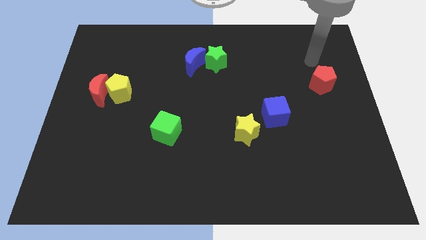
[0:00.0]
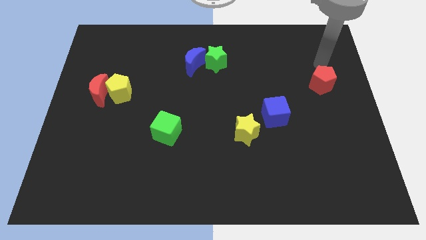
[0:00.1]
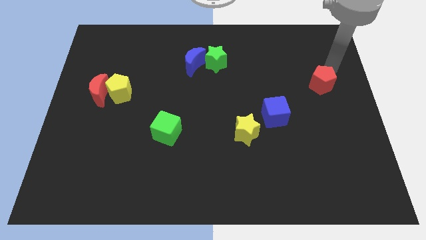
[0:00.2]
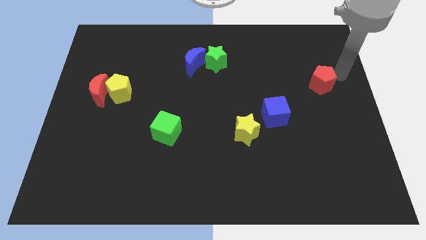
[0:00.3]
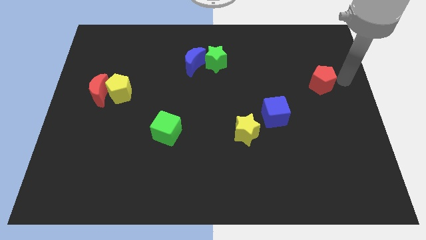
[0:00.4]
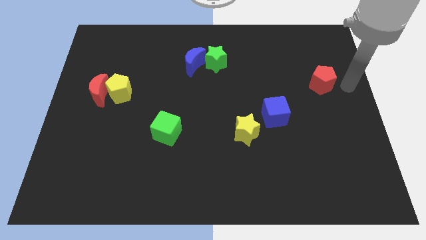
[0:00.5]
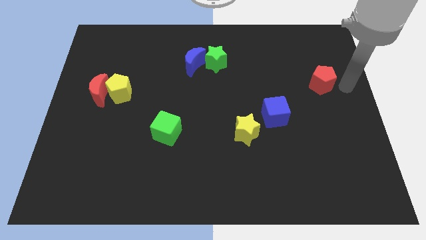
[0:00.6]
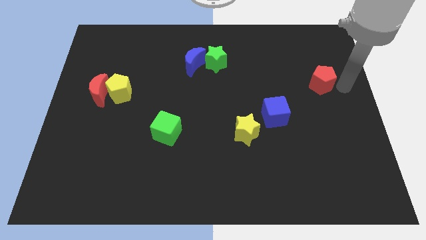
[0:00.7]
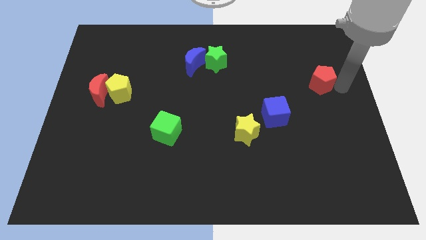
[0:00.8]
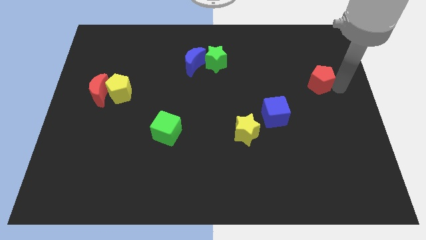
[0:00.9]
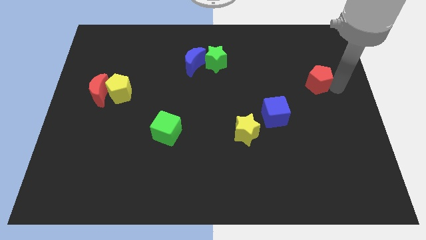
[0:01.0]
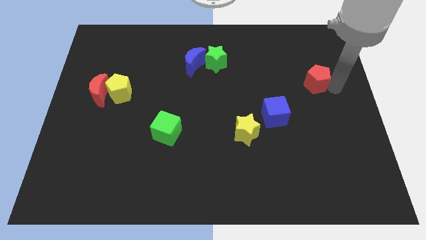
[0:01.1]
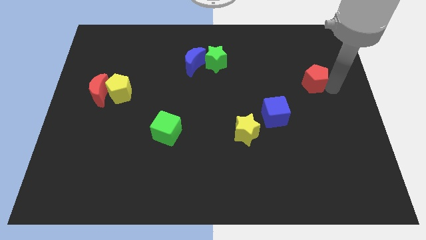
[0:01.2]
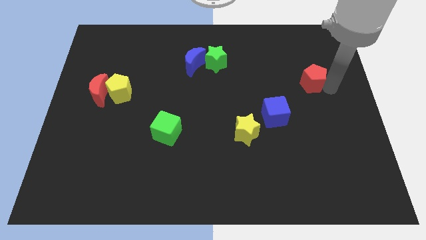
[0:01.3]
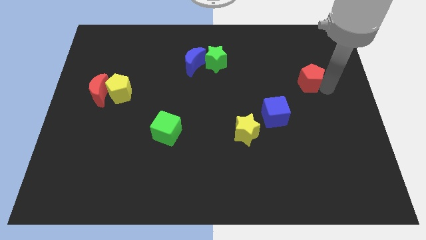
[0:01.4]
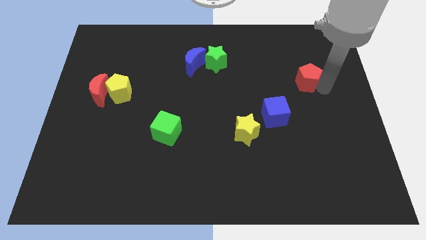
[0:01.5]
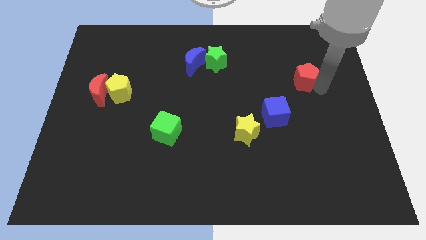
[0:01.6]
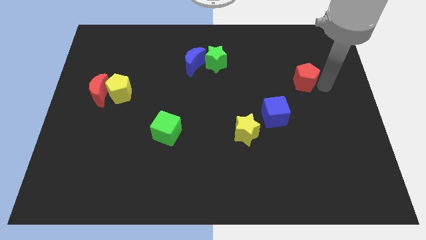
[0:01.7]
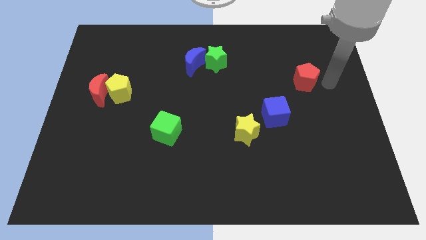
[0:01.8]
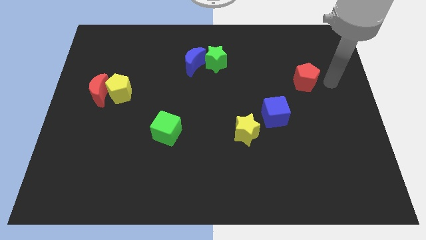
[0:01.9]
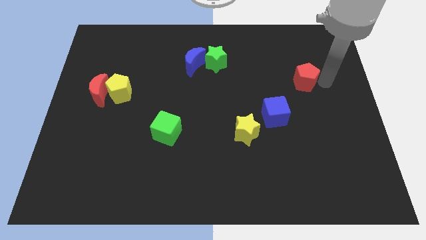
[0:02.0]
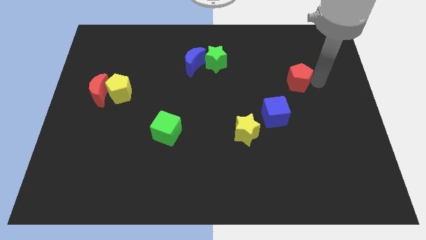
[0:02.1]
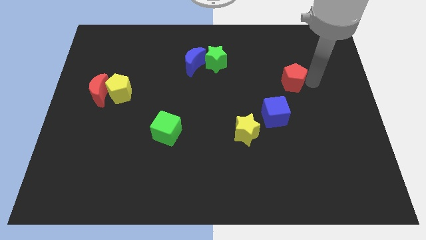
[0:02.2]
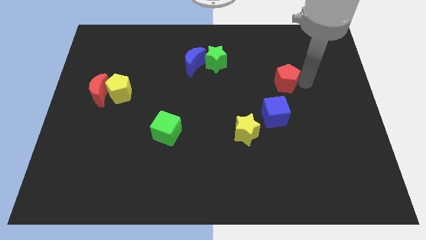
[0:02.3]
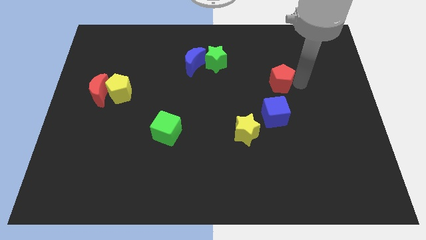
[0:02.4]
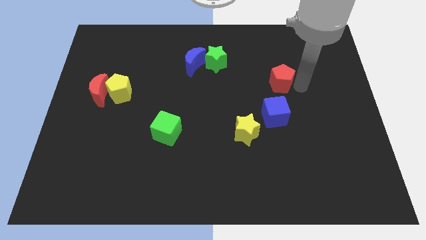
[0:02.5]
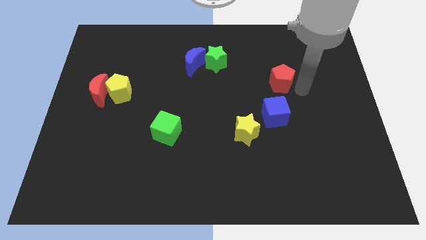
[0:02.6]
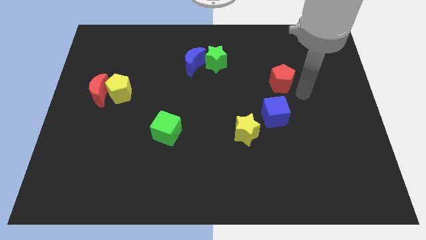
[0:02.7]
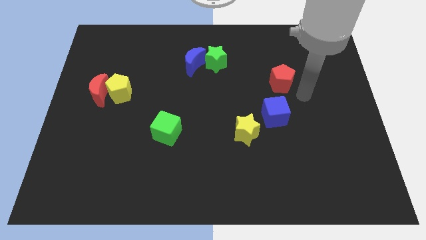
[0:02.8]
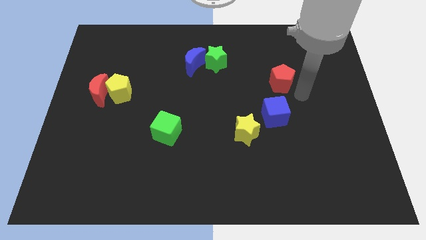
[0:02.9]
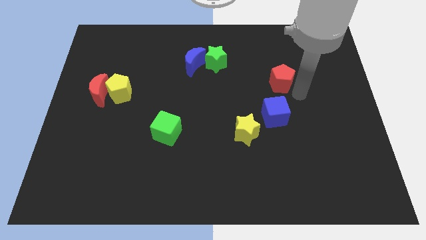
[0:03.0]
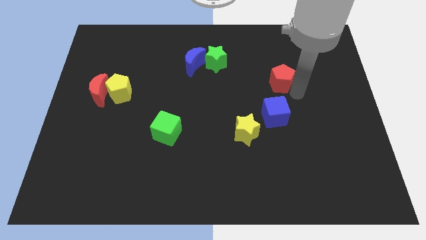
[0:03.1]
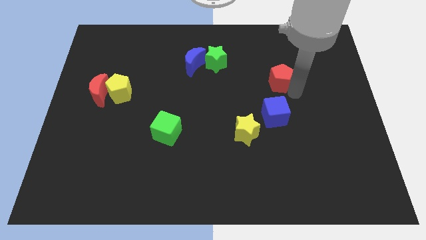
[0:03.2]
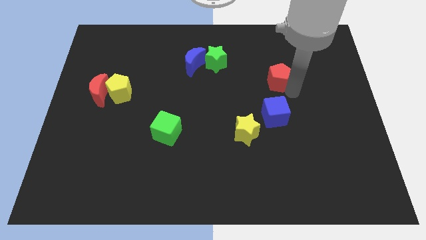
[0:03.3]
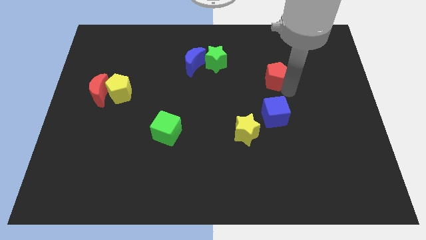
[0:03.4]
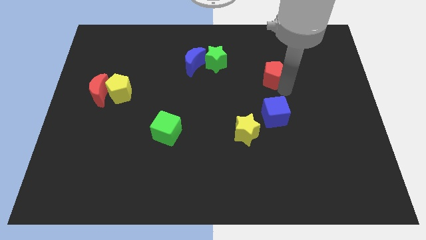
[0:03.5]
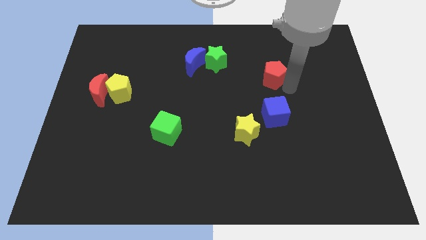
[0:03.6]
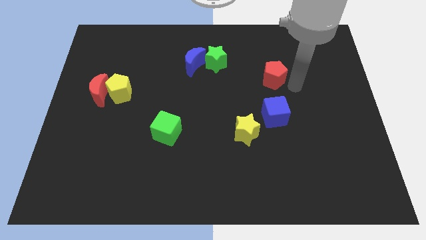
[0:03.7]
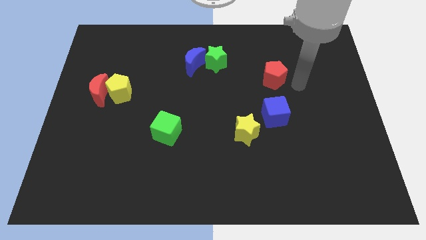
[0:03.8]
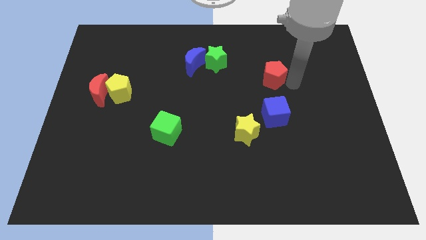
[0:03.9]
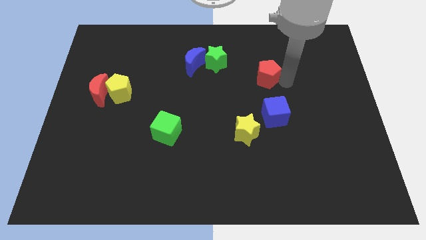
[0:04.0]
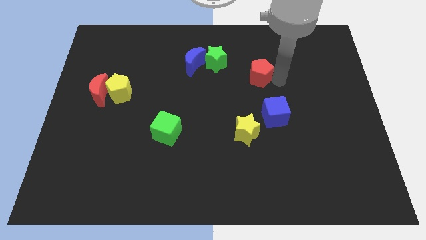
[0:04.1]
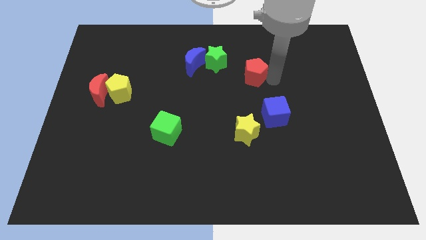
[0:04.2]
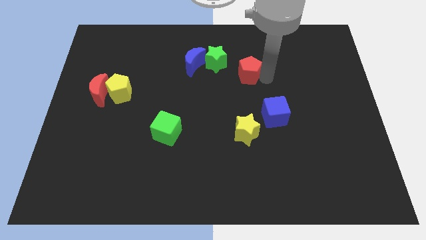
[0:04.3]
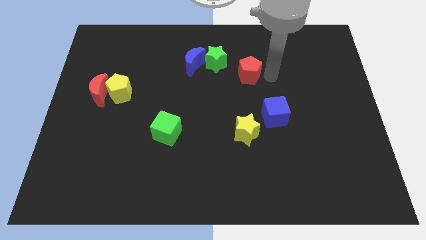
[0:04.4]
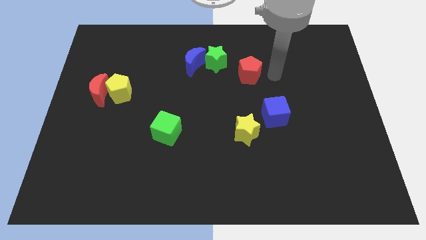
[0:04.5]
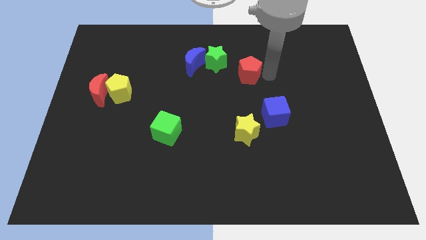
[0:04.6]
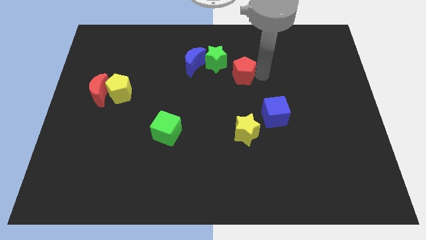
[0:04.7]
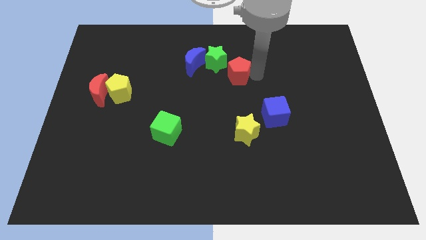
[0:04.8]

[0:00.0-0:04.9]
move the red pentagon to the left

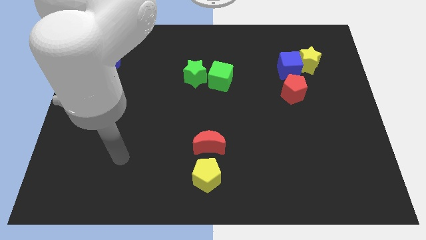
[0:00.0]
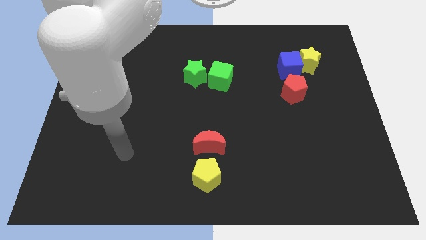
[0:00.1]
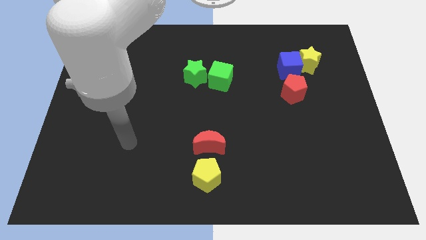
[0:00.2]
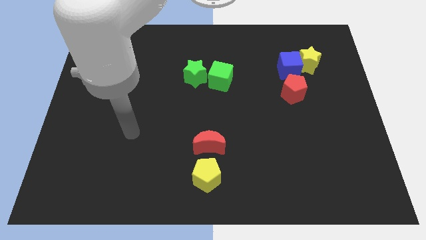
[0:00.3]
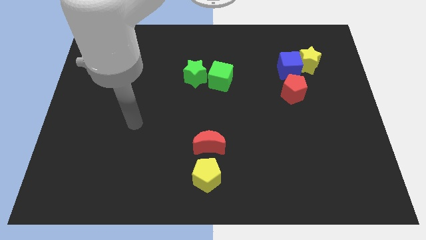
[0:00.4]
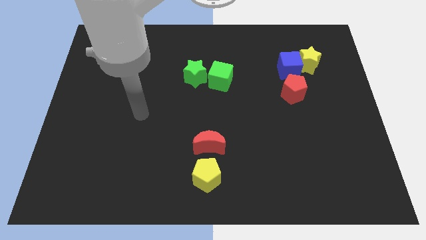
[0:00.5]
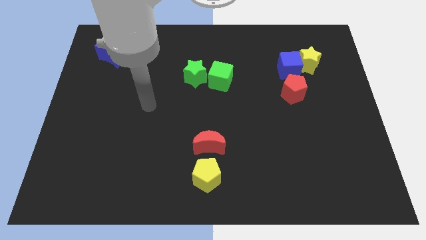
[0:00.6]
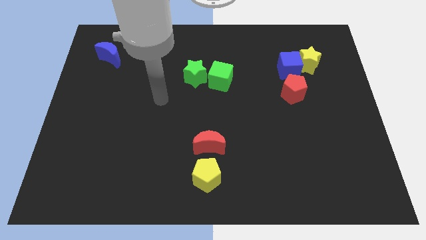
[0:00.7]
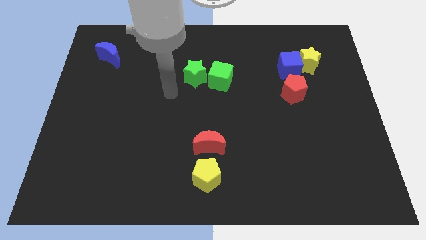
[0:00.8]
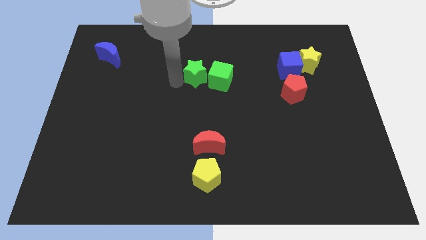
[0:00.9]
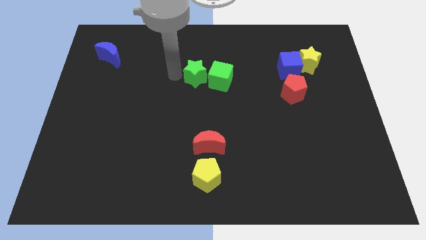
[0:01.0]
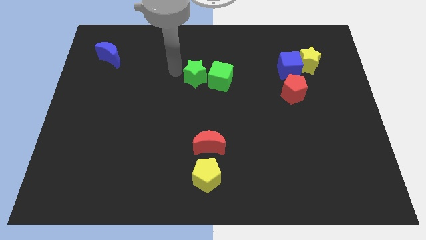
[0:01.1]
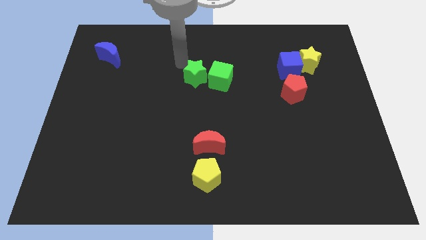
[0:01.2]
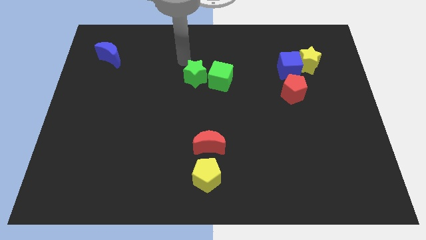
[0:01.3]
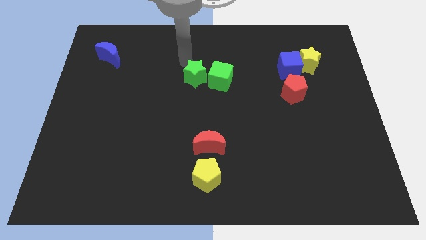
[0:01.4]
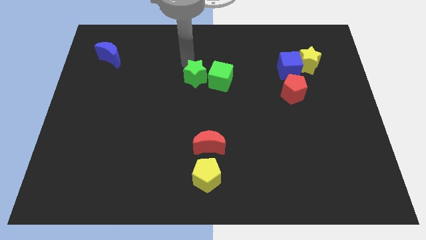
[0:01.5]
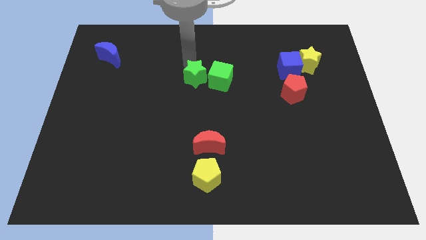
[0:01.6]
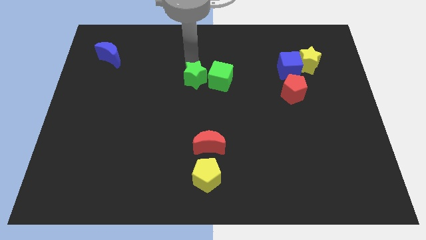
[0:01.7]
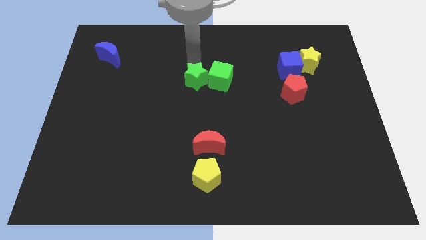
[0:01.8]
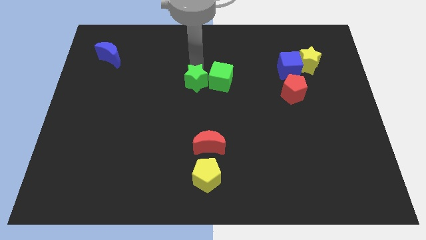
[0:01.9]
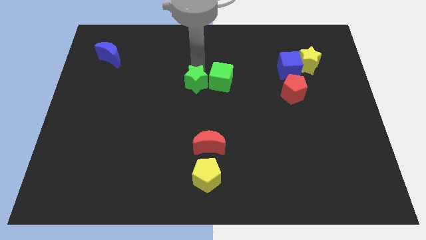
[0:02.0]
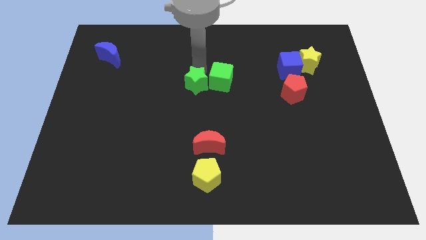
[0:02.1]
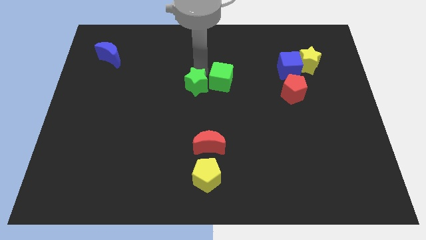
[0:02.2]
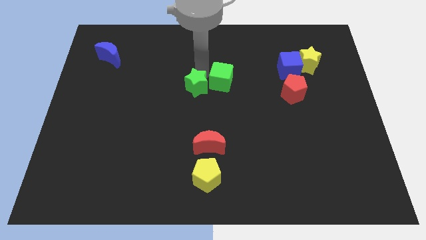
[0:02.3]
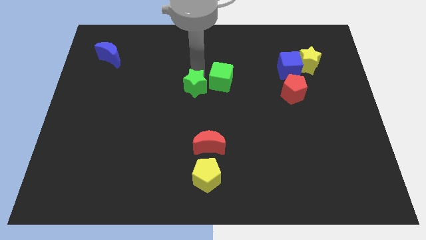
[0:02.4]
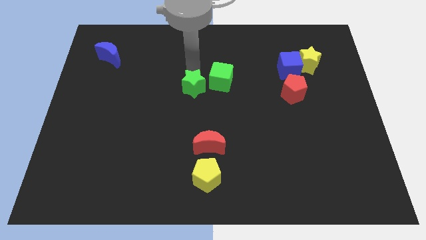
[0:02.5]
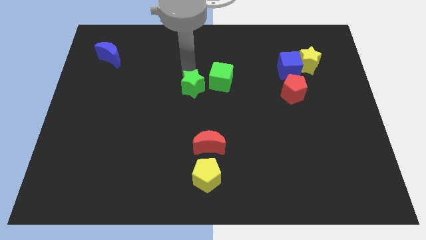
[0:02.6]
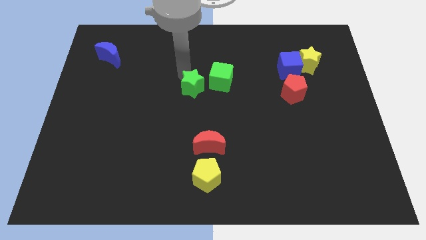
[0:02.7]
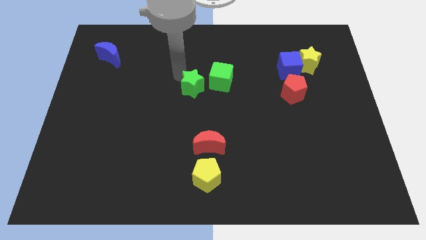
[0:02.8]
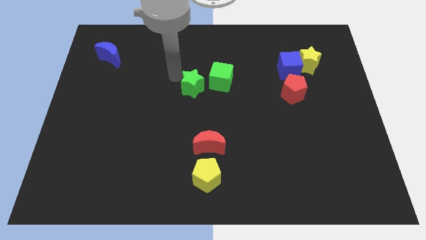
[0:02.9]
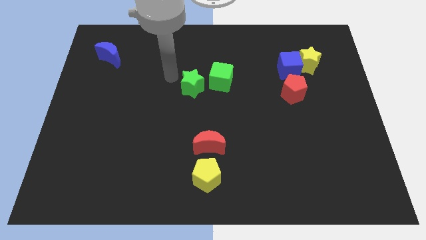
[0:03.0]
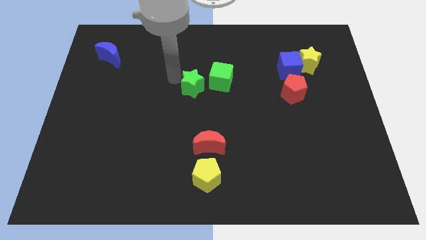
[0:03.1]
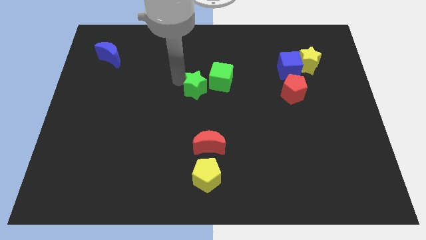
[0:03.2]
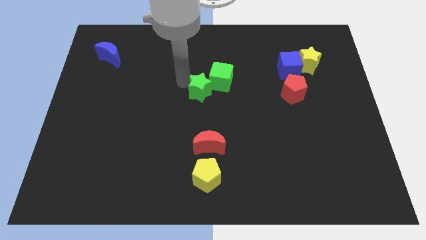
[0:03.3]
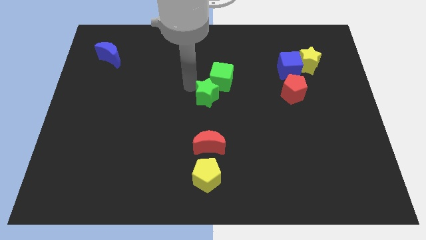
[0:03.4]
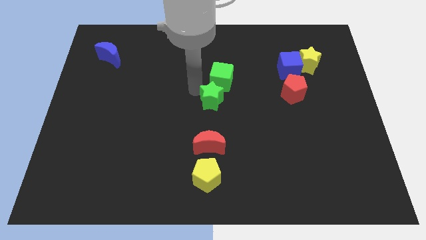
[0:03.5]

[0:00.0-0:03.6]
push the green star diagonally downwards and to the right slightly
